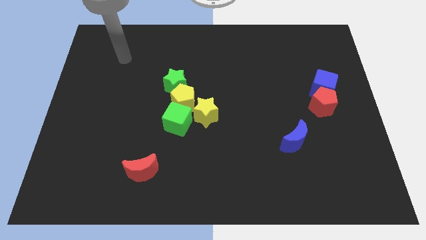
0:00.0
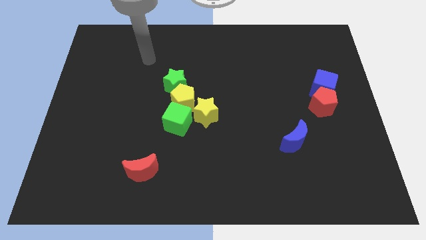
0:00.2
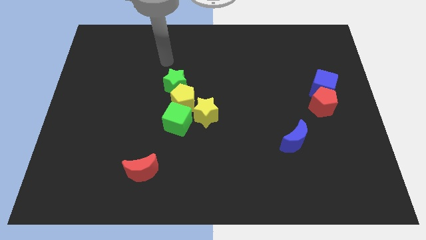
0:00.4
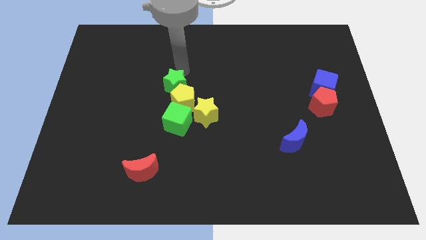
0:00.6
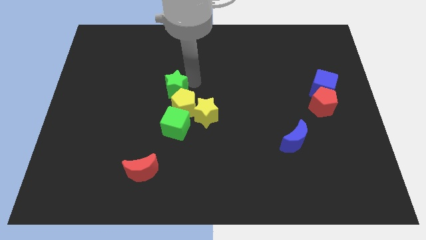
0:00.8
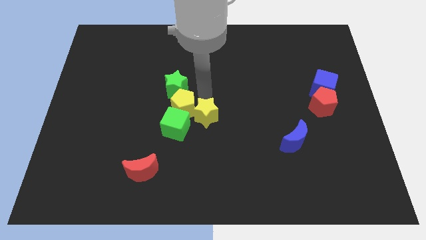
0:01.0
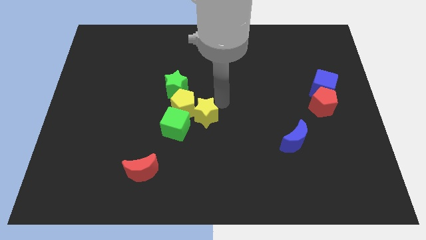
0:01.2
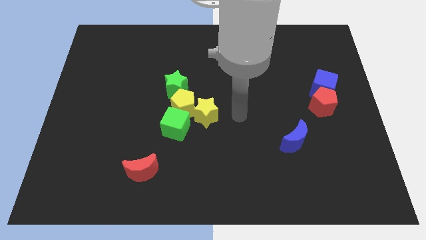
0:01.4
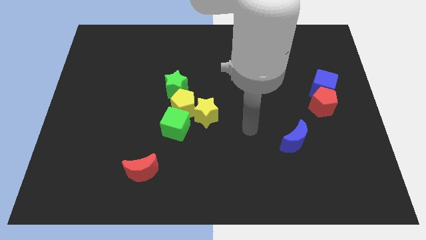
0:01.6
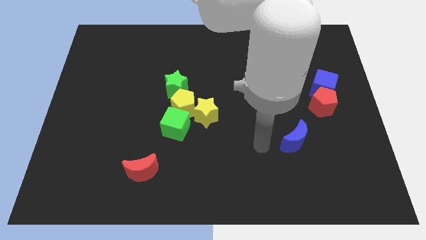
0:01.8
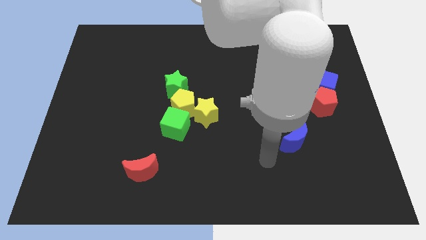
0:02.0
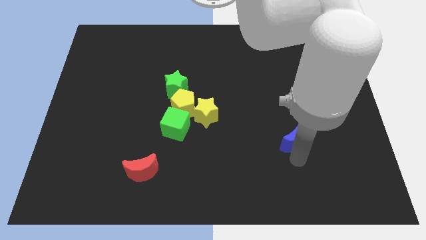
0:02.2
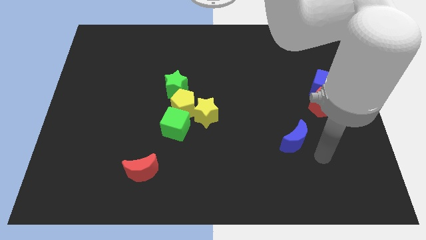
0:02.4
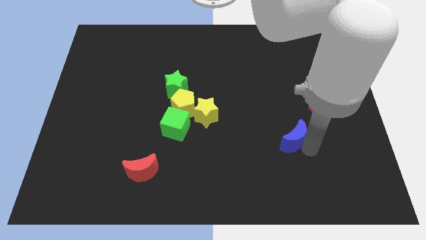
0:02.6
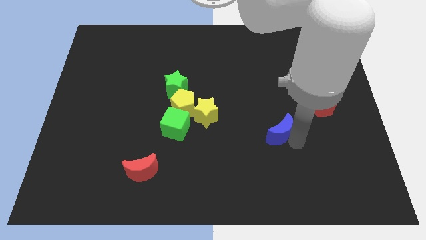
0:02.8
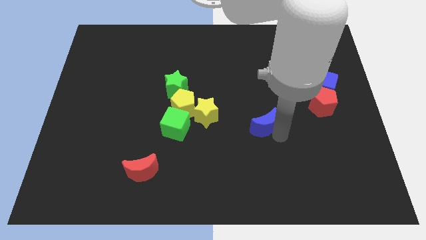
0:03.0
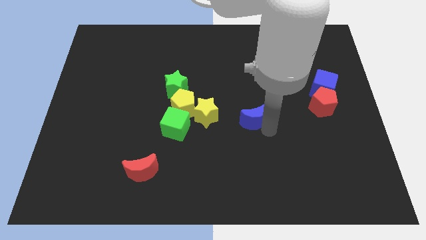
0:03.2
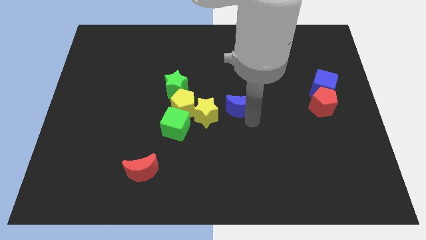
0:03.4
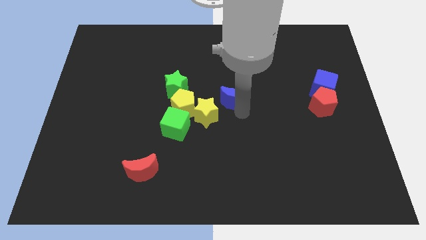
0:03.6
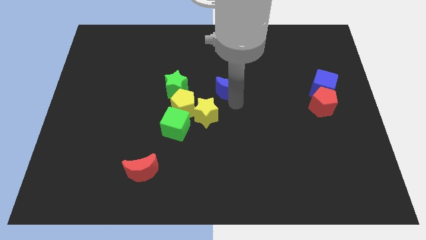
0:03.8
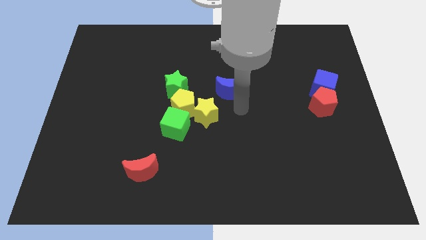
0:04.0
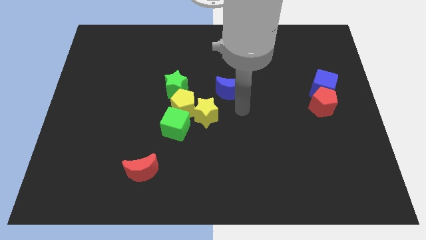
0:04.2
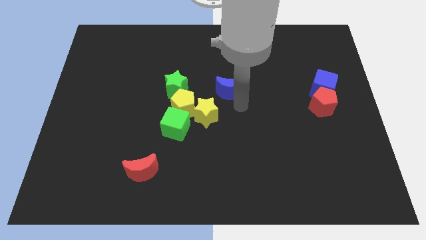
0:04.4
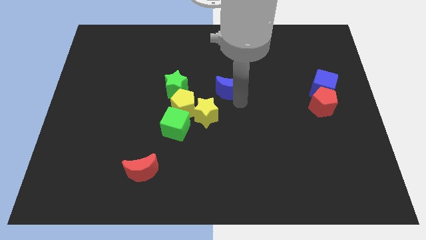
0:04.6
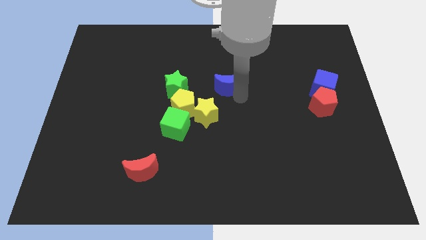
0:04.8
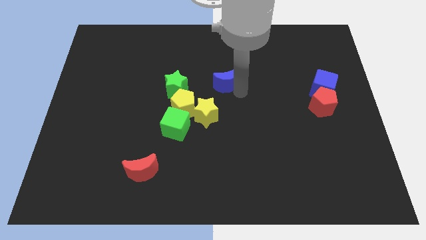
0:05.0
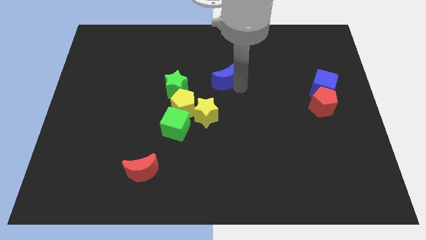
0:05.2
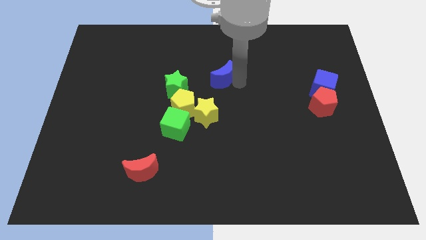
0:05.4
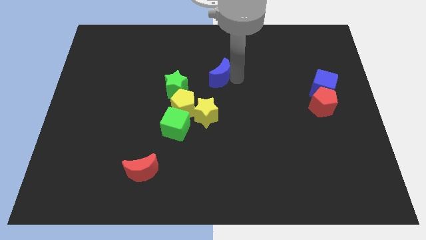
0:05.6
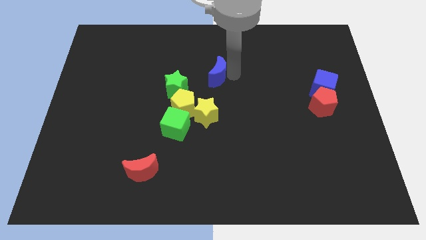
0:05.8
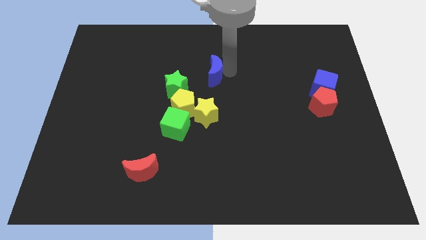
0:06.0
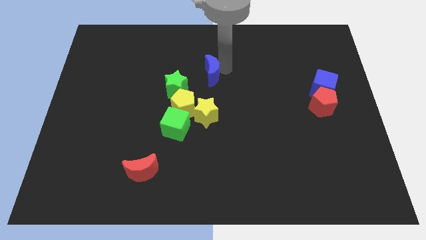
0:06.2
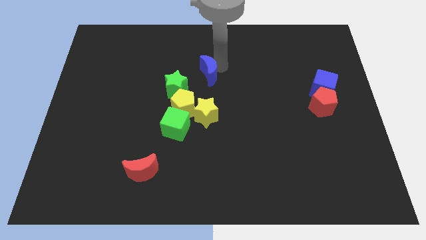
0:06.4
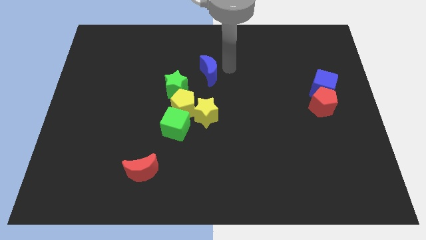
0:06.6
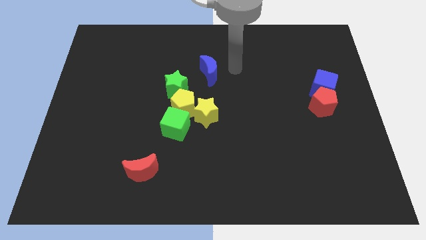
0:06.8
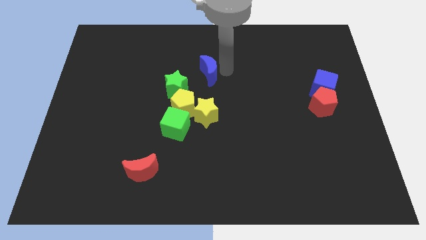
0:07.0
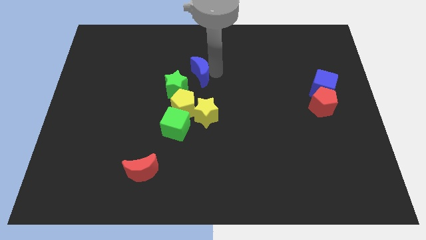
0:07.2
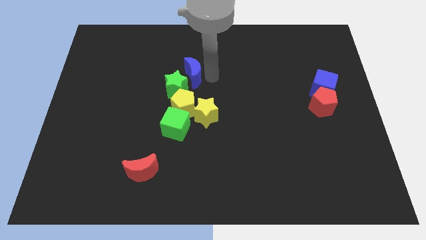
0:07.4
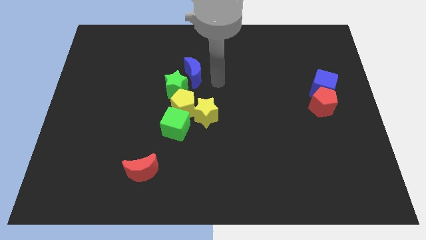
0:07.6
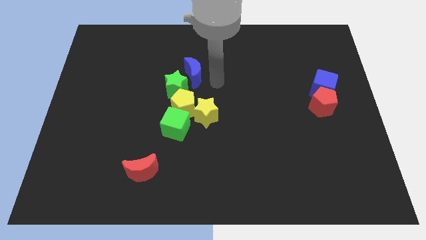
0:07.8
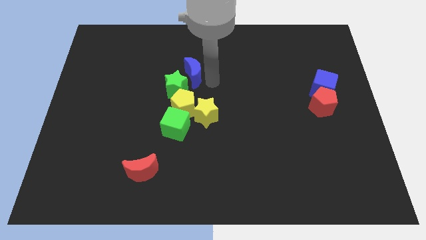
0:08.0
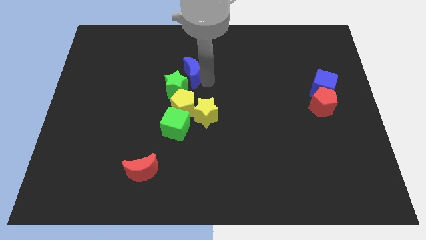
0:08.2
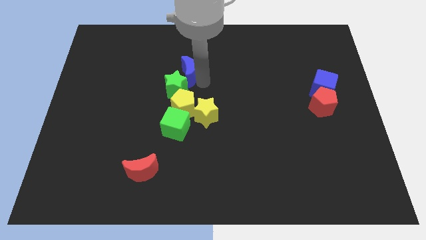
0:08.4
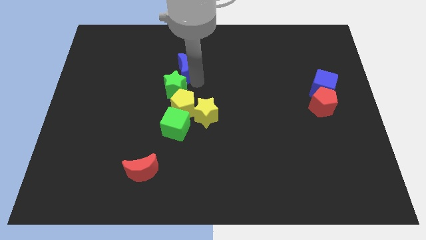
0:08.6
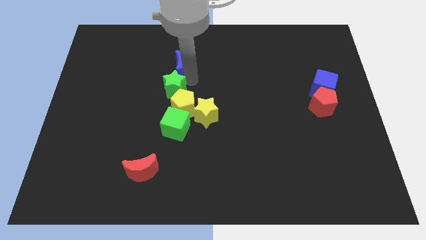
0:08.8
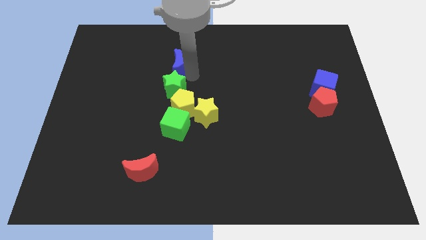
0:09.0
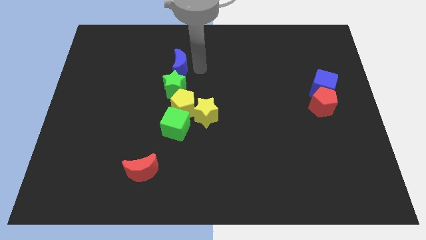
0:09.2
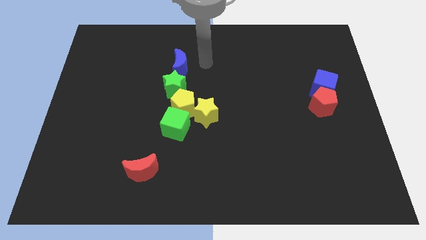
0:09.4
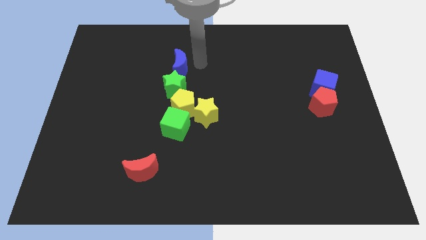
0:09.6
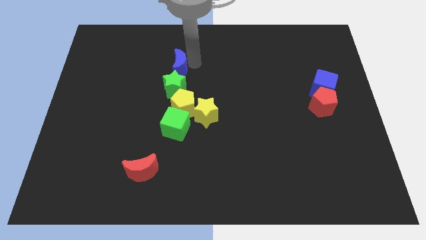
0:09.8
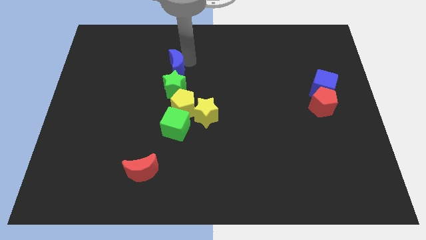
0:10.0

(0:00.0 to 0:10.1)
put the blue moon to the top left of the green star

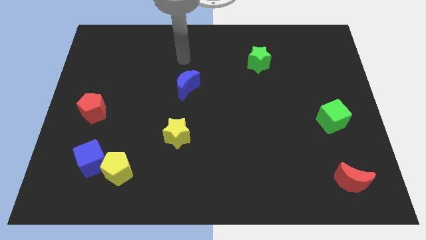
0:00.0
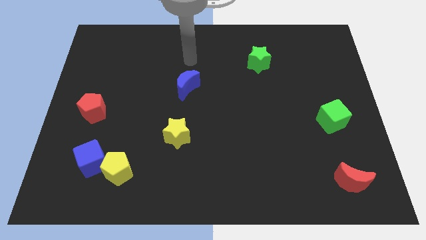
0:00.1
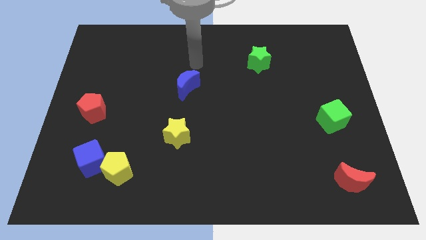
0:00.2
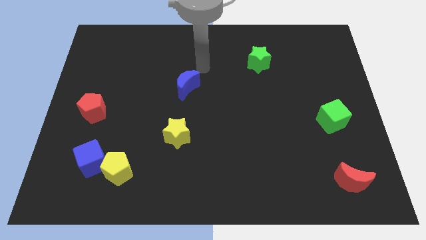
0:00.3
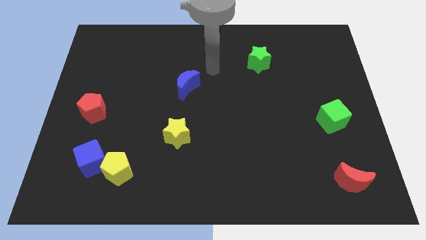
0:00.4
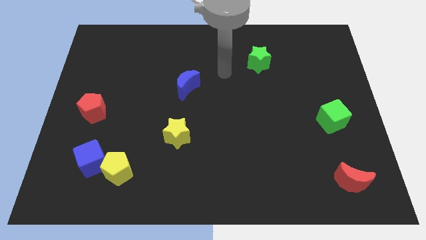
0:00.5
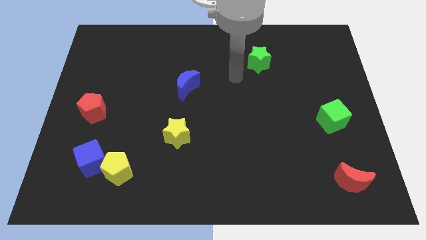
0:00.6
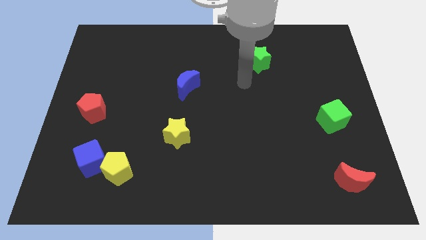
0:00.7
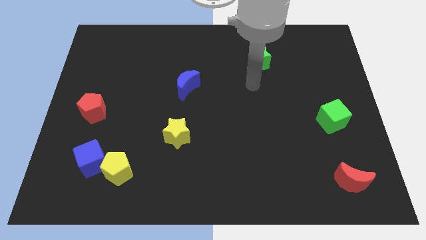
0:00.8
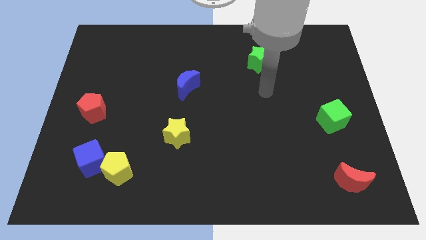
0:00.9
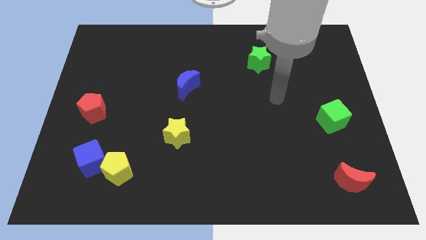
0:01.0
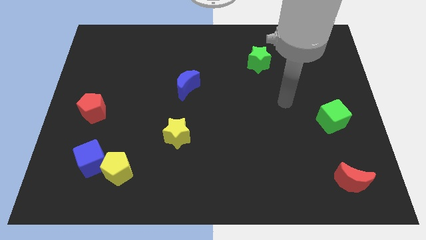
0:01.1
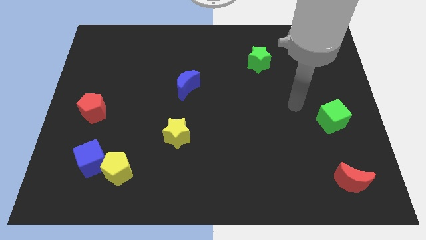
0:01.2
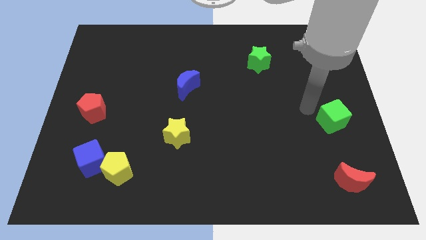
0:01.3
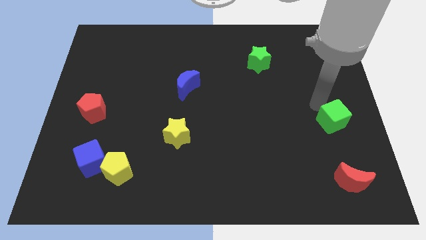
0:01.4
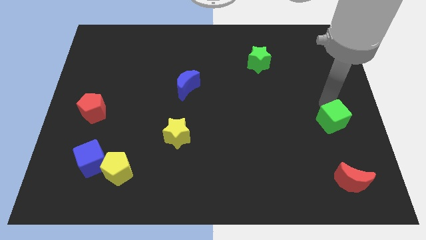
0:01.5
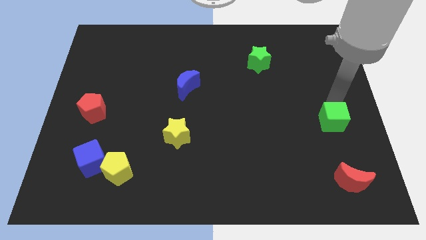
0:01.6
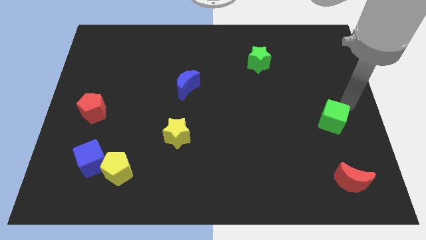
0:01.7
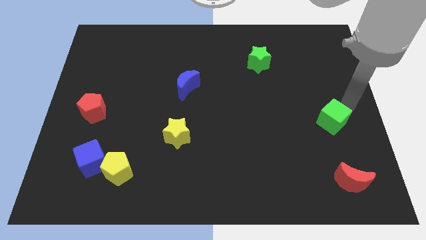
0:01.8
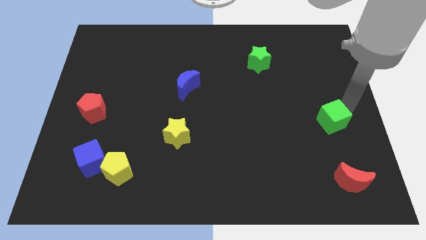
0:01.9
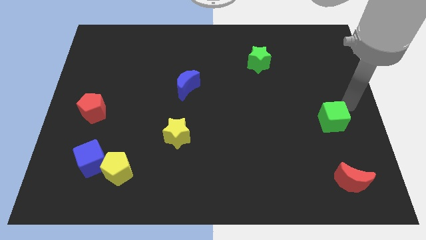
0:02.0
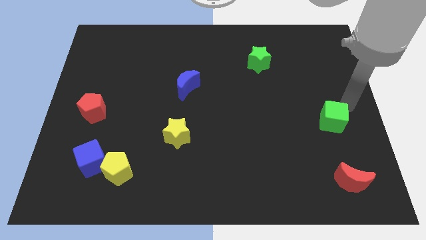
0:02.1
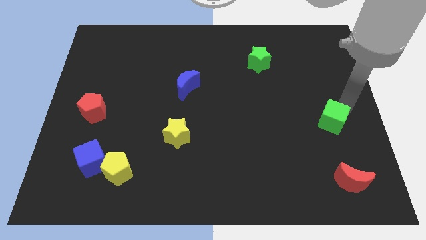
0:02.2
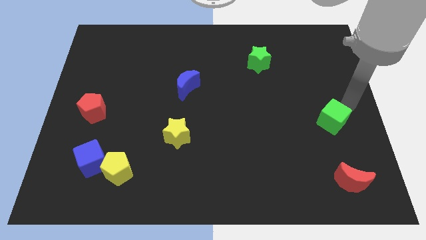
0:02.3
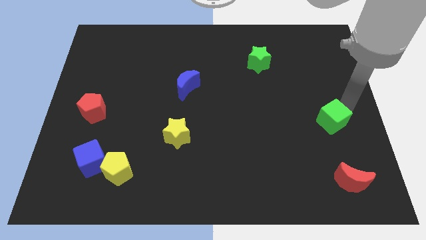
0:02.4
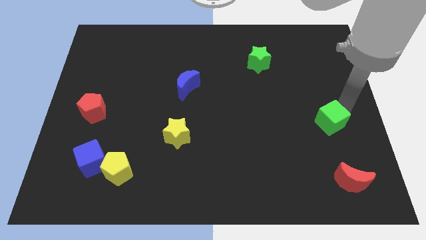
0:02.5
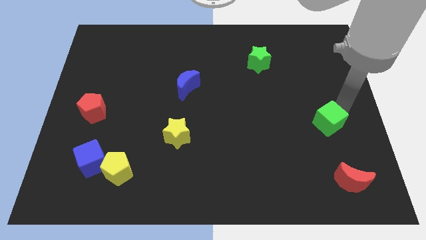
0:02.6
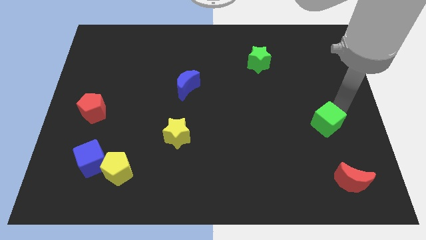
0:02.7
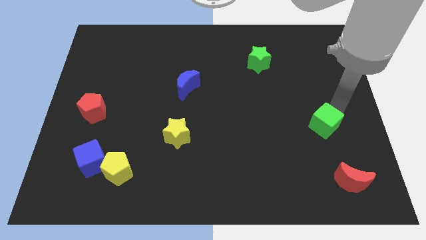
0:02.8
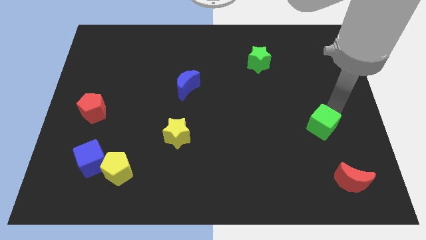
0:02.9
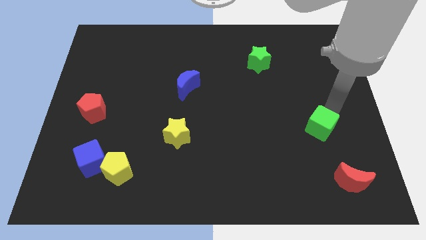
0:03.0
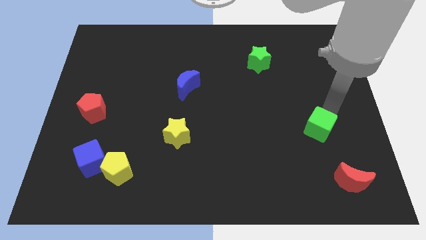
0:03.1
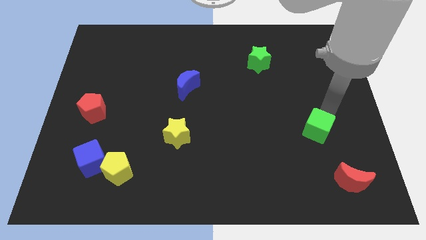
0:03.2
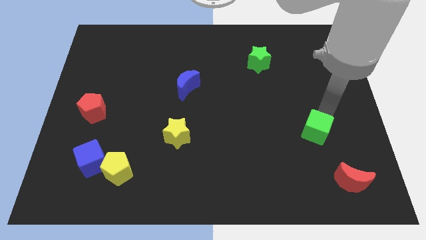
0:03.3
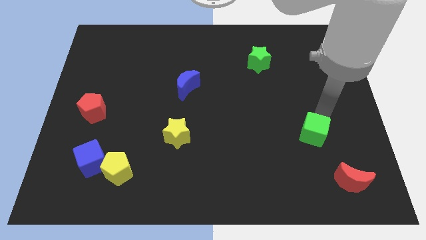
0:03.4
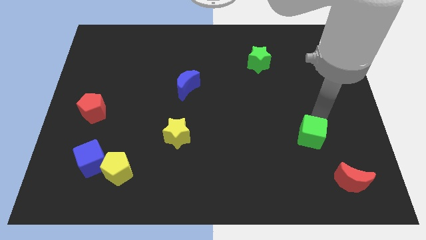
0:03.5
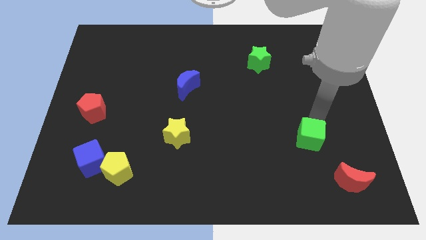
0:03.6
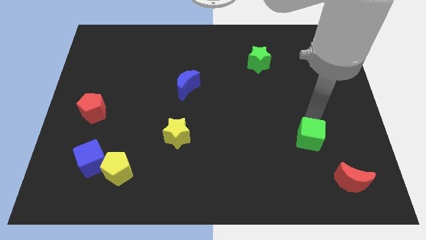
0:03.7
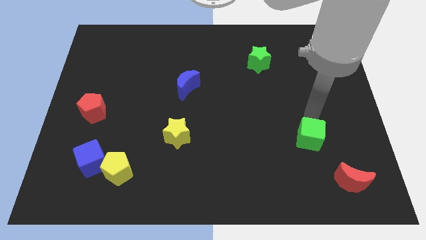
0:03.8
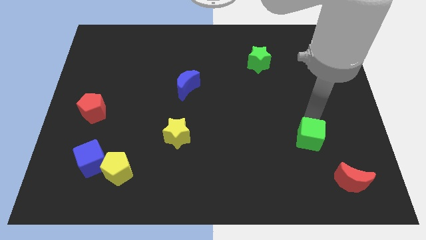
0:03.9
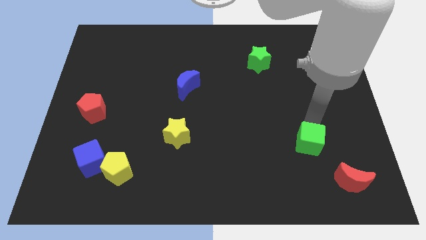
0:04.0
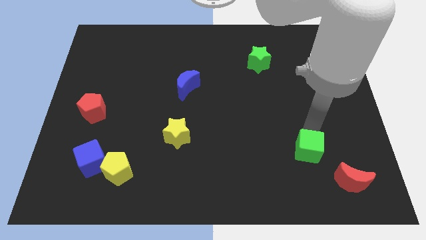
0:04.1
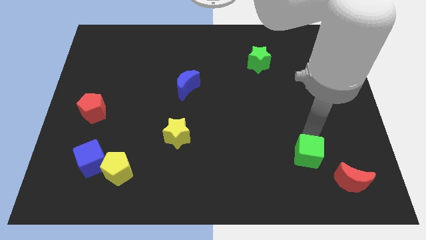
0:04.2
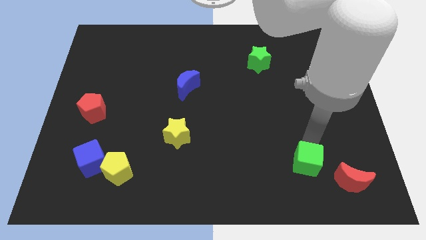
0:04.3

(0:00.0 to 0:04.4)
move the green cube just left of the red moon
